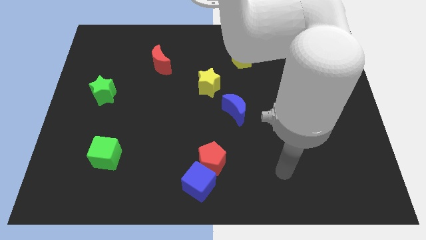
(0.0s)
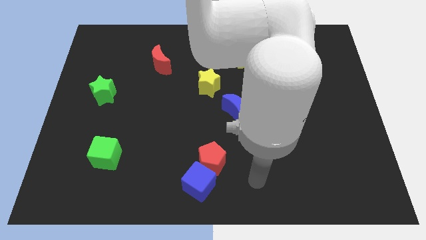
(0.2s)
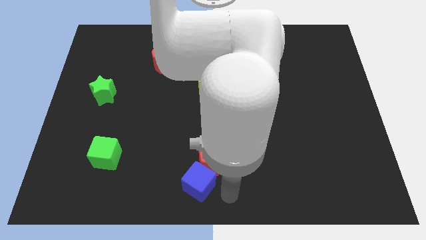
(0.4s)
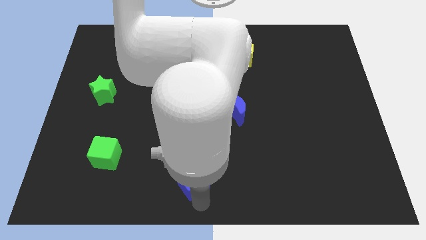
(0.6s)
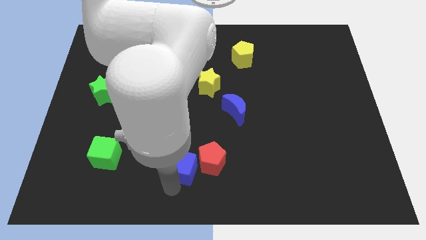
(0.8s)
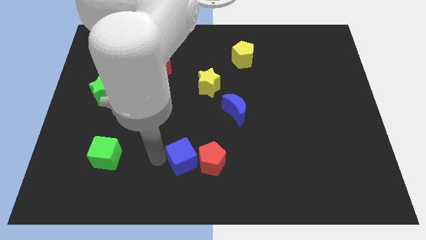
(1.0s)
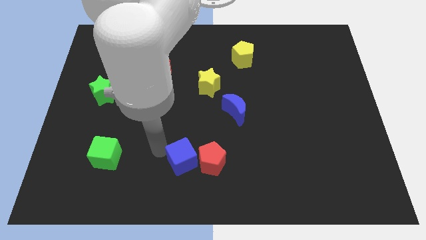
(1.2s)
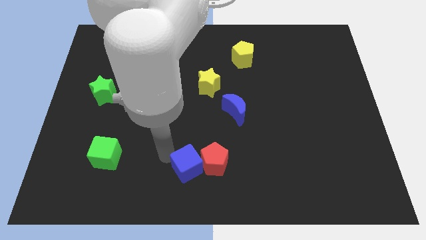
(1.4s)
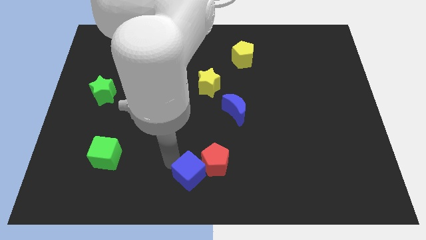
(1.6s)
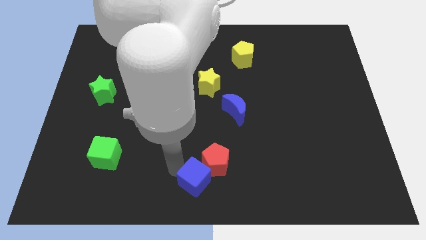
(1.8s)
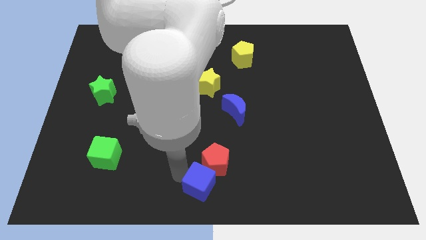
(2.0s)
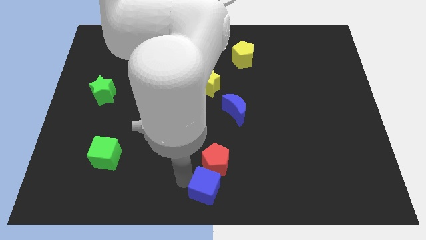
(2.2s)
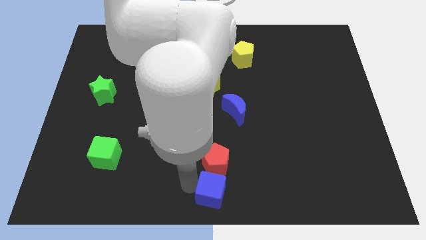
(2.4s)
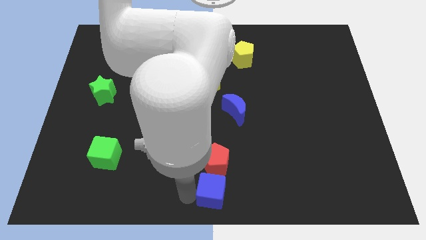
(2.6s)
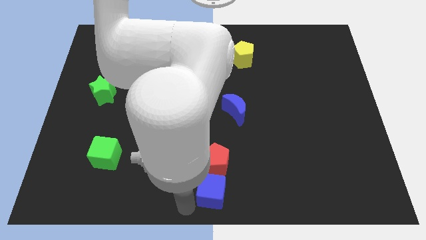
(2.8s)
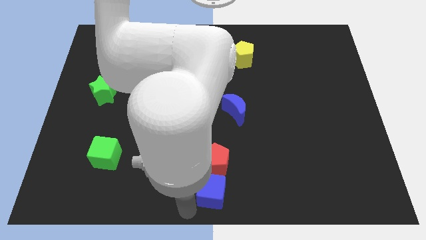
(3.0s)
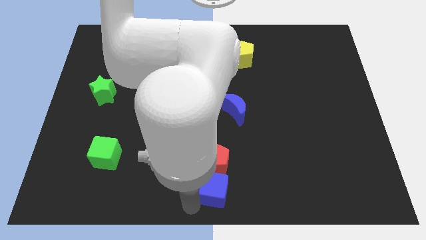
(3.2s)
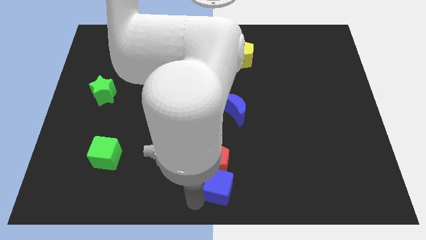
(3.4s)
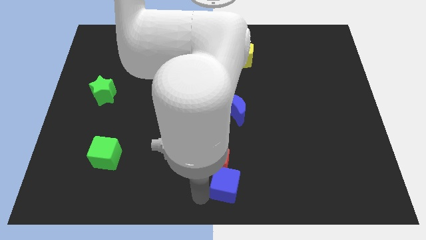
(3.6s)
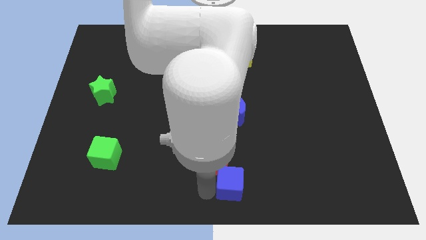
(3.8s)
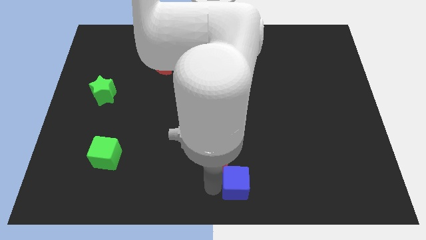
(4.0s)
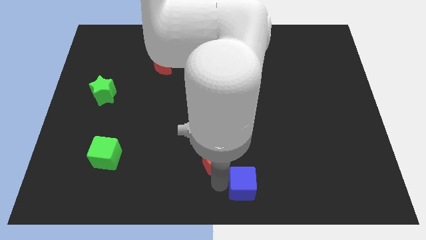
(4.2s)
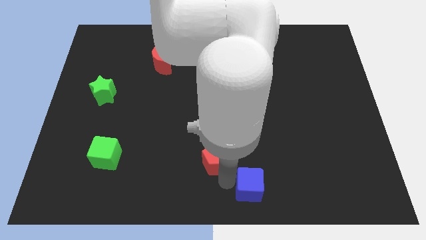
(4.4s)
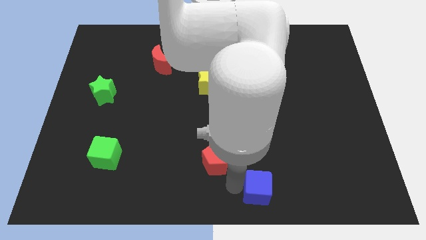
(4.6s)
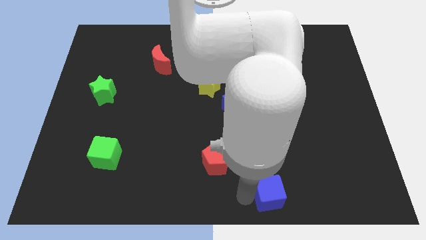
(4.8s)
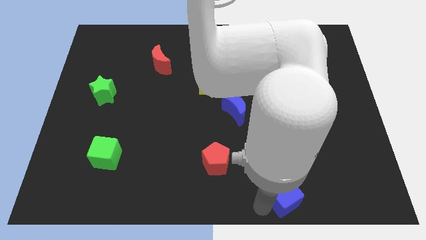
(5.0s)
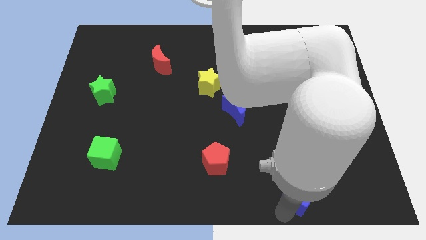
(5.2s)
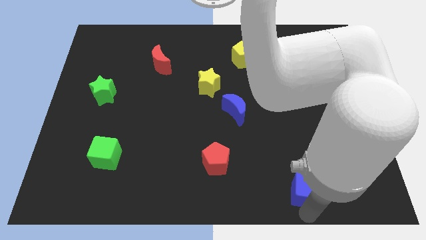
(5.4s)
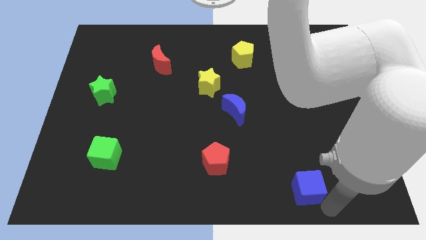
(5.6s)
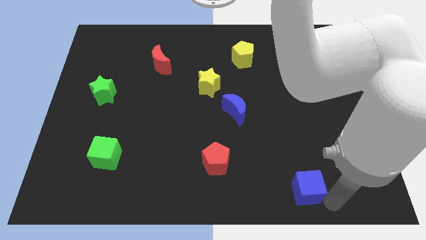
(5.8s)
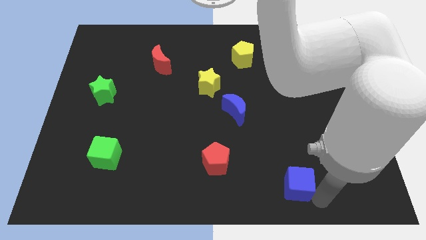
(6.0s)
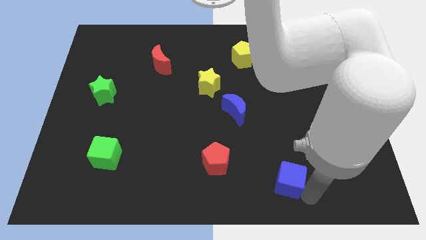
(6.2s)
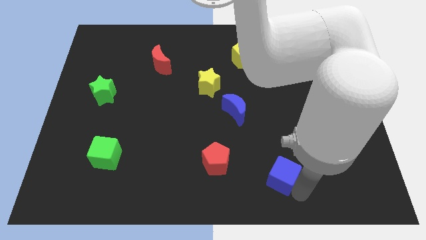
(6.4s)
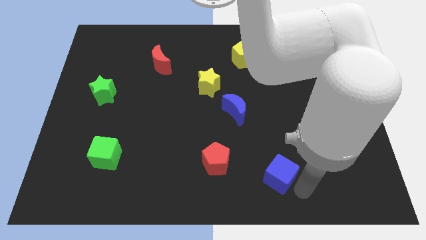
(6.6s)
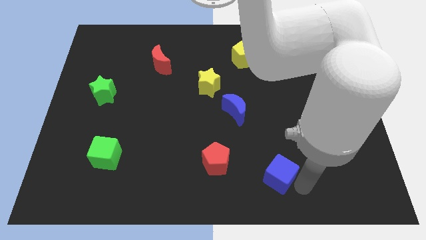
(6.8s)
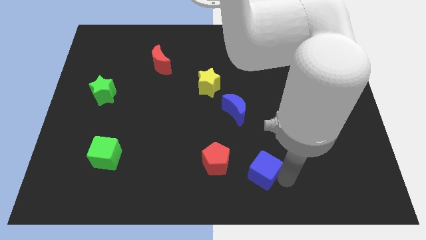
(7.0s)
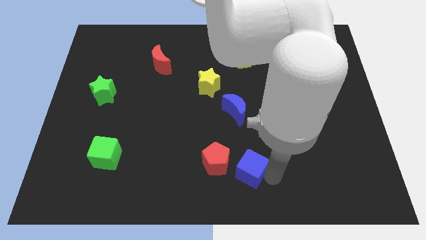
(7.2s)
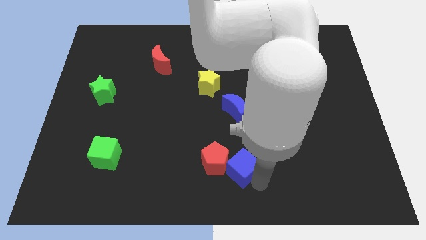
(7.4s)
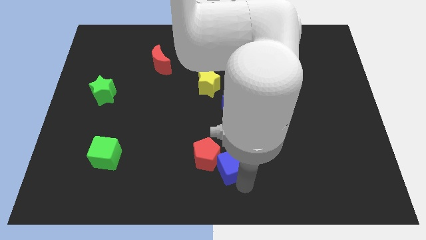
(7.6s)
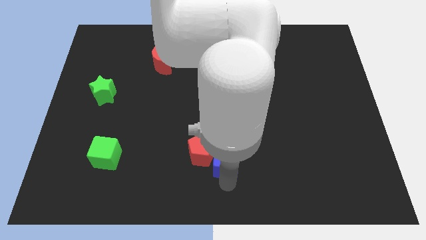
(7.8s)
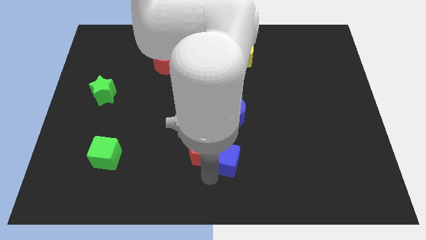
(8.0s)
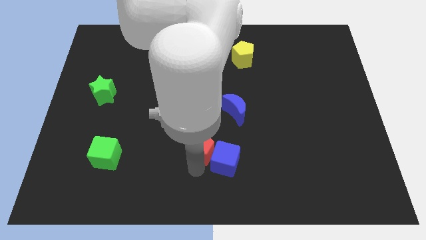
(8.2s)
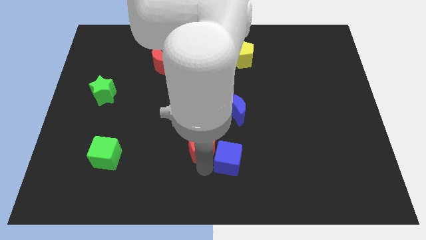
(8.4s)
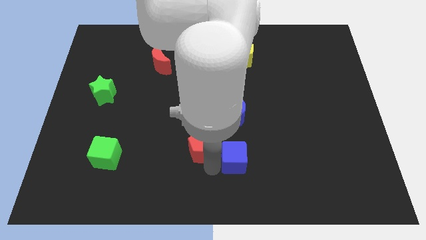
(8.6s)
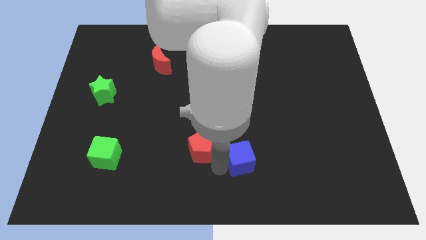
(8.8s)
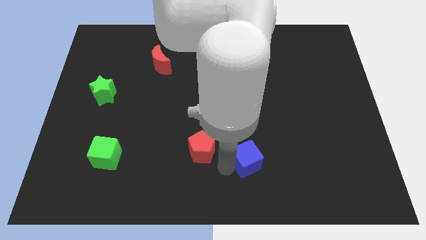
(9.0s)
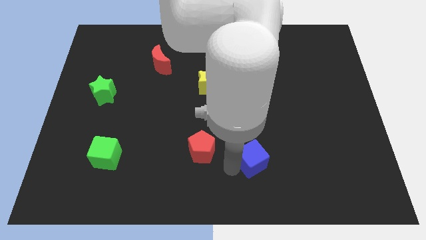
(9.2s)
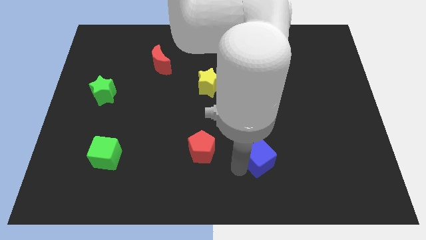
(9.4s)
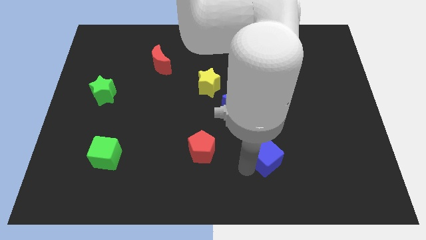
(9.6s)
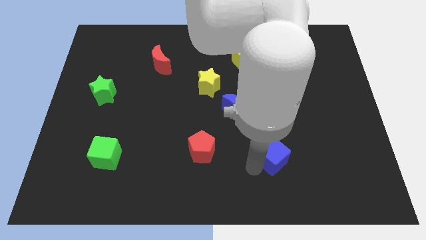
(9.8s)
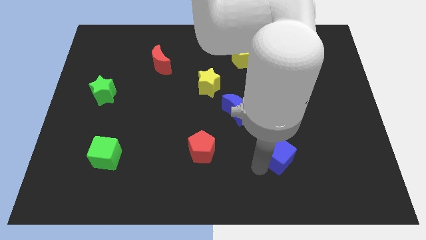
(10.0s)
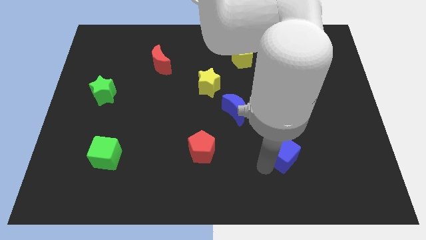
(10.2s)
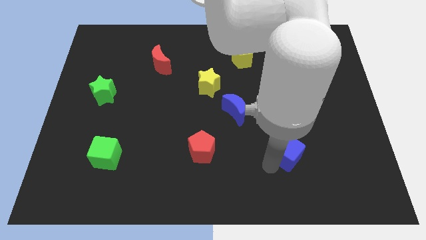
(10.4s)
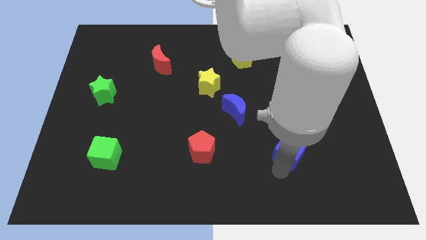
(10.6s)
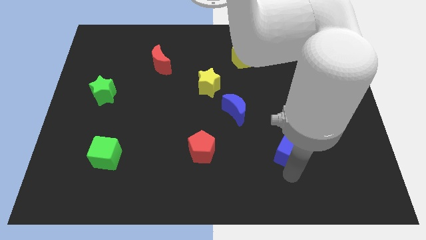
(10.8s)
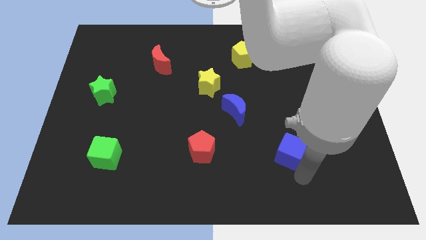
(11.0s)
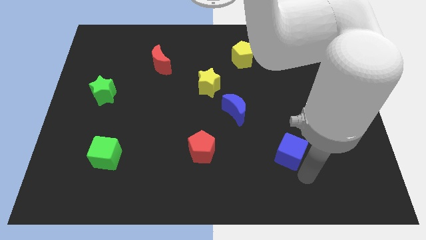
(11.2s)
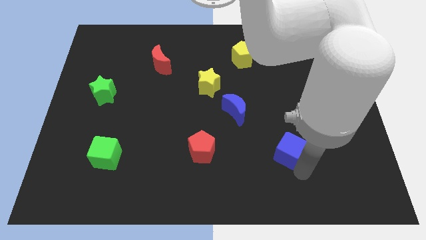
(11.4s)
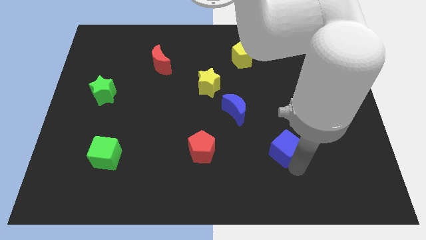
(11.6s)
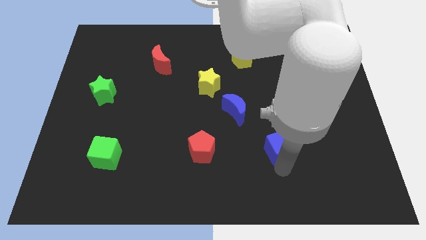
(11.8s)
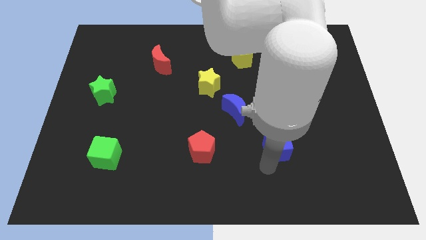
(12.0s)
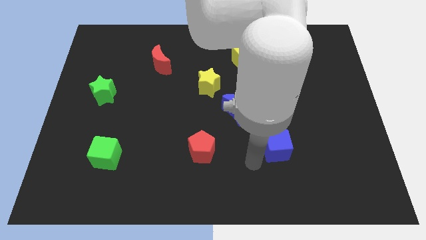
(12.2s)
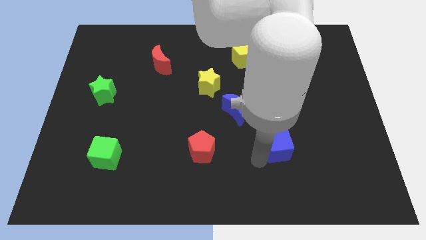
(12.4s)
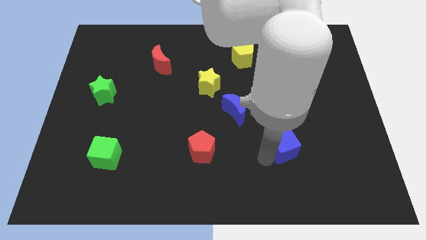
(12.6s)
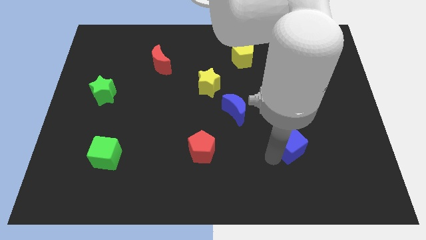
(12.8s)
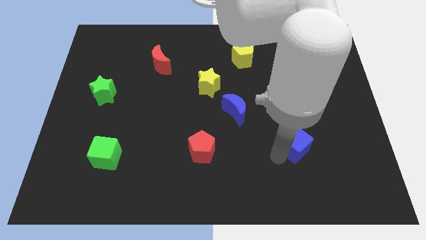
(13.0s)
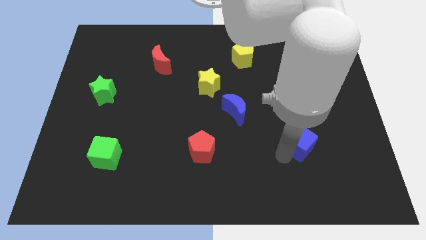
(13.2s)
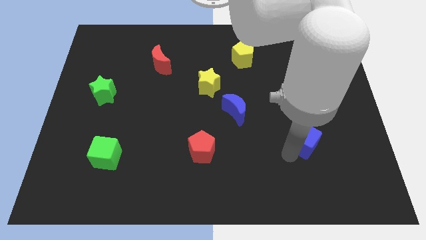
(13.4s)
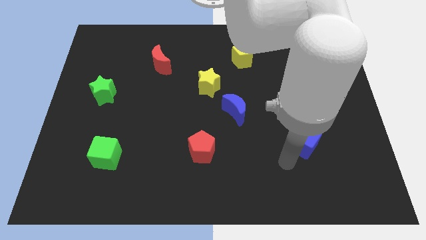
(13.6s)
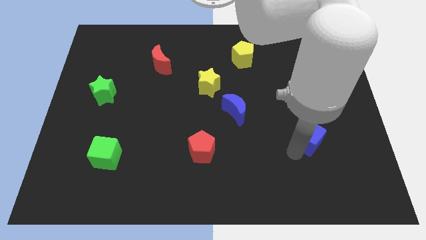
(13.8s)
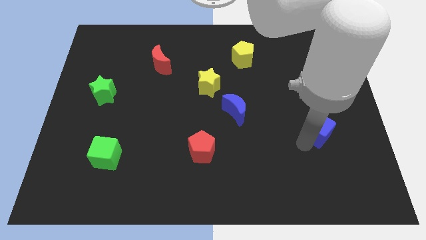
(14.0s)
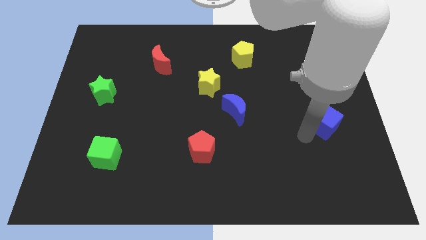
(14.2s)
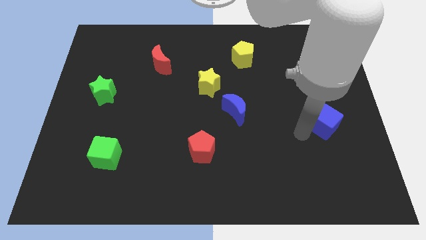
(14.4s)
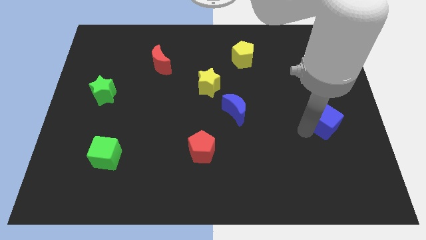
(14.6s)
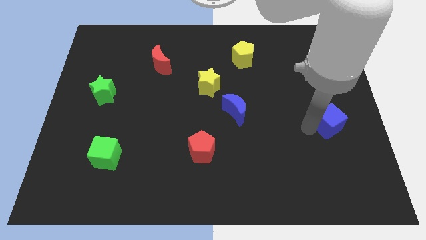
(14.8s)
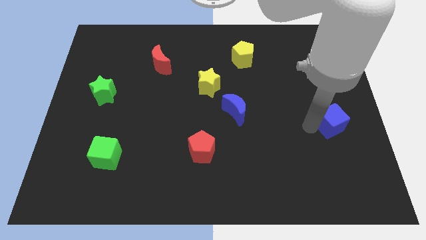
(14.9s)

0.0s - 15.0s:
move the blue cube to the right side
